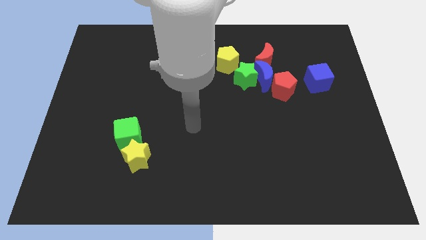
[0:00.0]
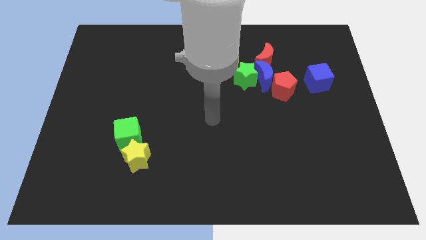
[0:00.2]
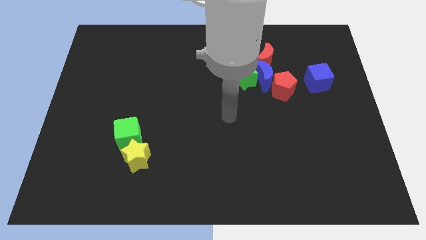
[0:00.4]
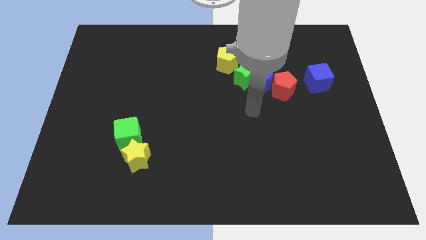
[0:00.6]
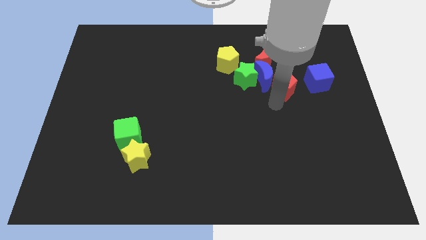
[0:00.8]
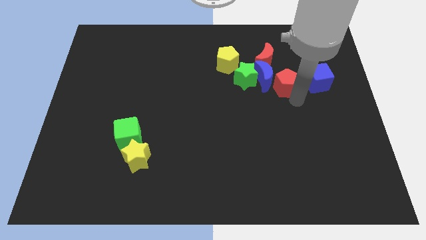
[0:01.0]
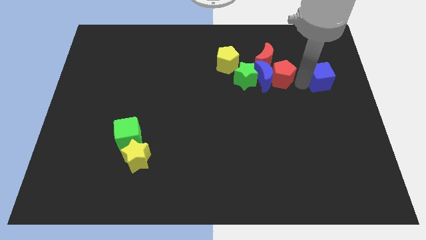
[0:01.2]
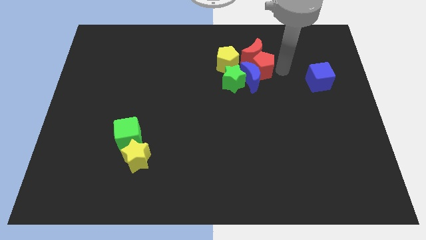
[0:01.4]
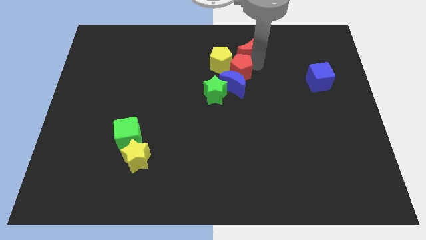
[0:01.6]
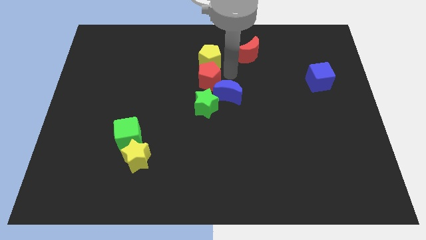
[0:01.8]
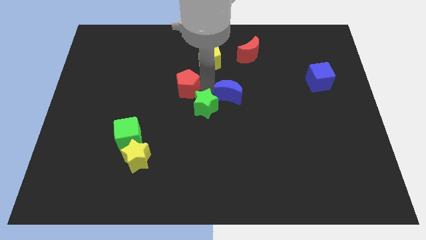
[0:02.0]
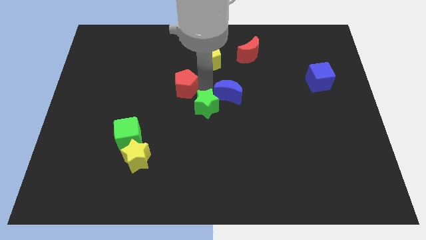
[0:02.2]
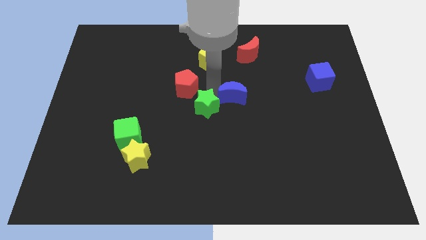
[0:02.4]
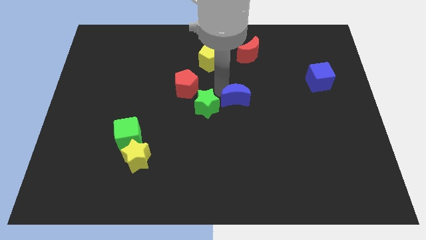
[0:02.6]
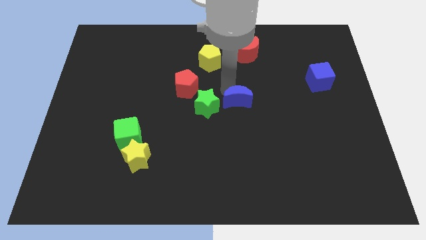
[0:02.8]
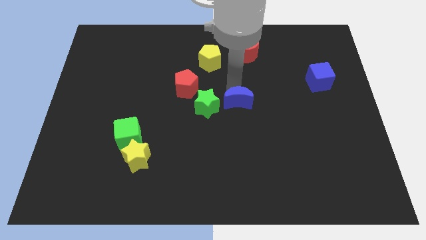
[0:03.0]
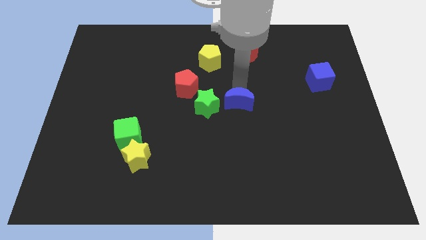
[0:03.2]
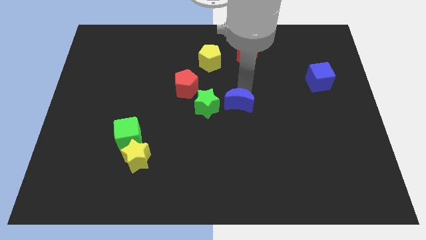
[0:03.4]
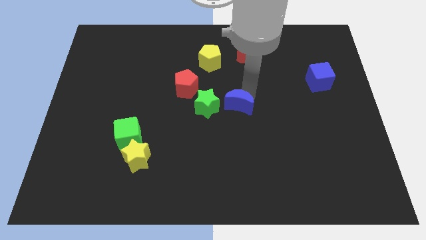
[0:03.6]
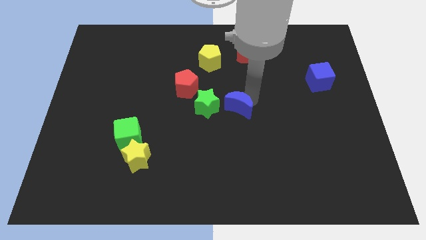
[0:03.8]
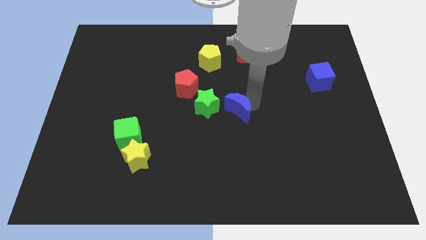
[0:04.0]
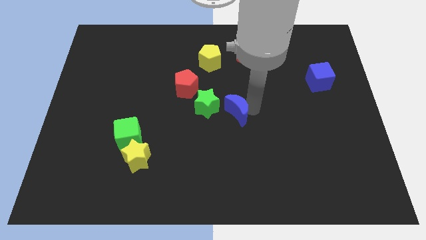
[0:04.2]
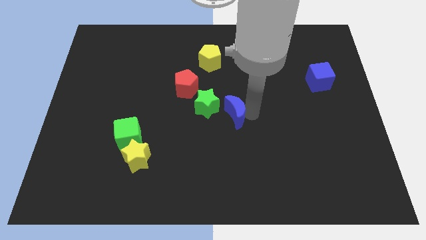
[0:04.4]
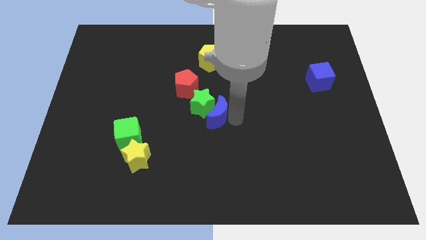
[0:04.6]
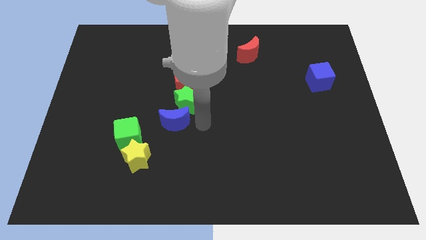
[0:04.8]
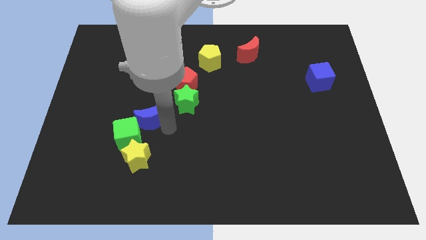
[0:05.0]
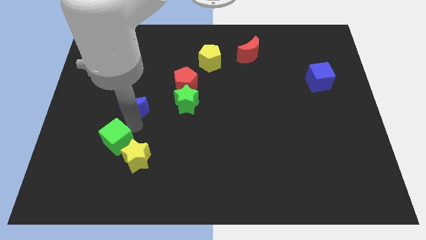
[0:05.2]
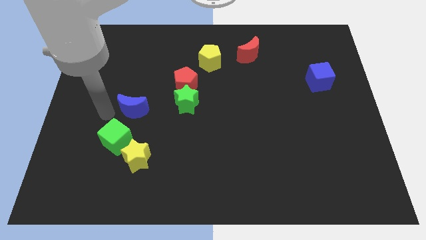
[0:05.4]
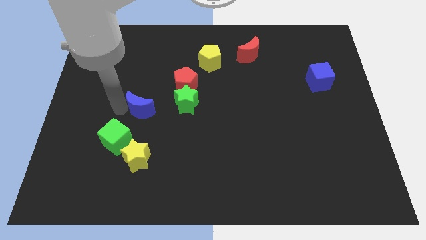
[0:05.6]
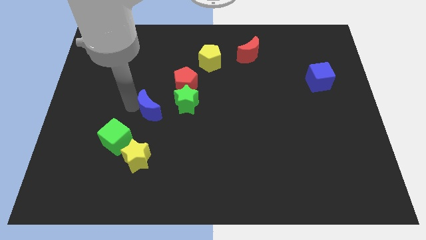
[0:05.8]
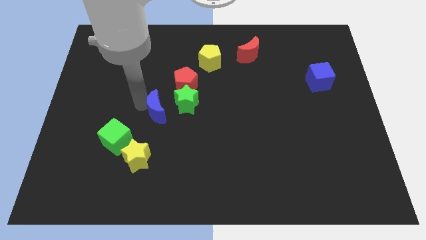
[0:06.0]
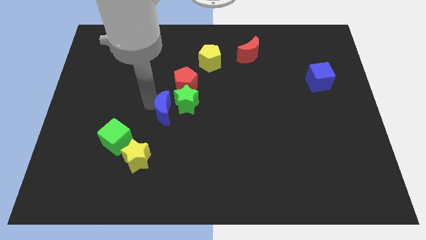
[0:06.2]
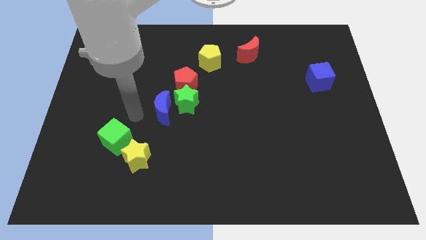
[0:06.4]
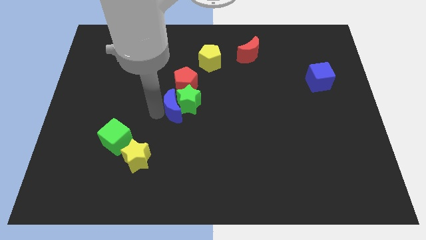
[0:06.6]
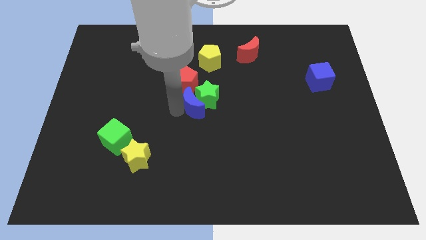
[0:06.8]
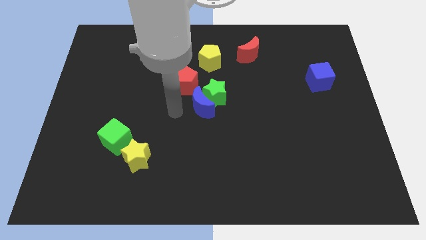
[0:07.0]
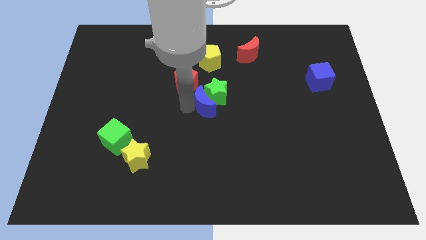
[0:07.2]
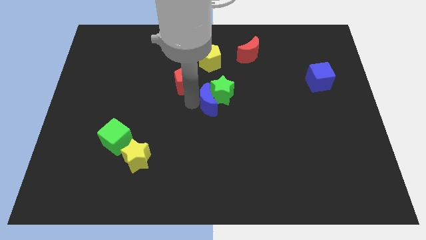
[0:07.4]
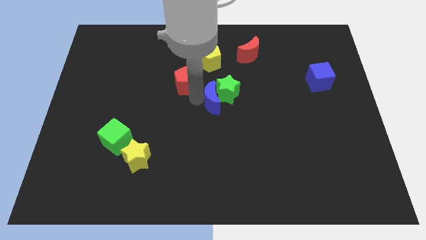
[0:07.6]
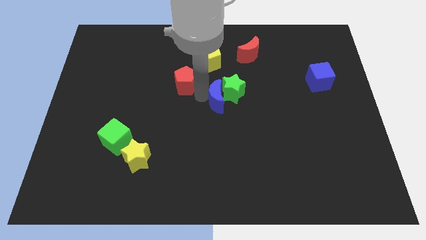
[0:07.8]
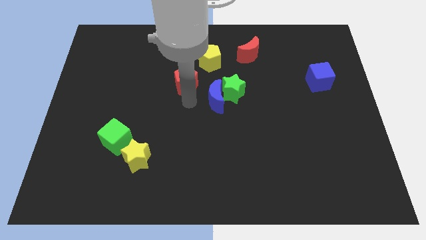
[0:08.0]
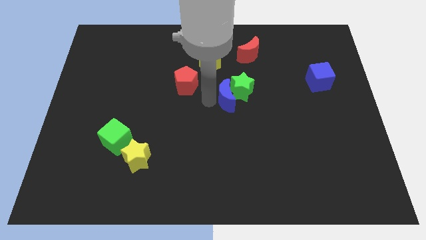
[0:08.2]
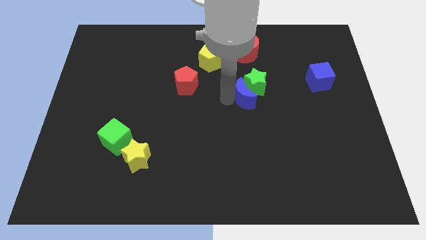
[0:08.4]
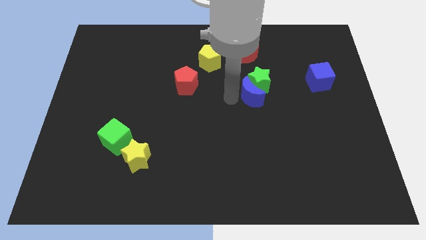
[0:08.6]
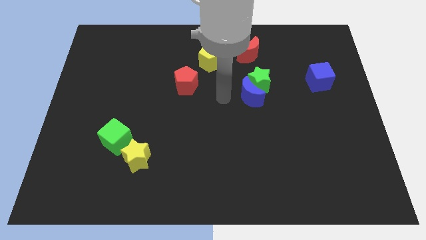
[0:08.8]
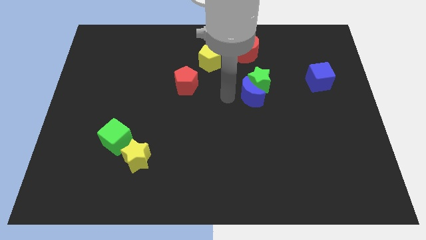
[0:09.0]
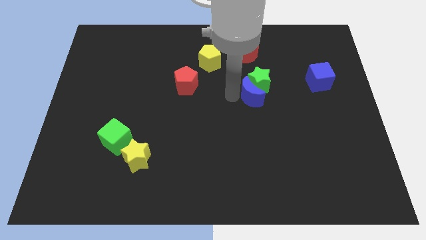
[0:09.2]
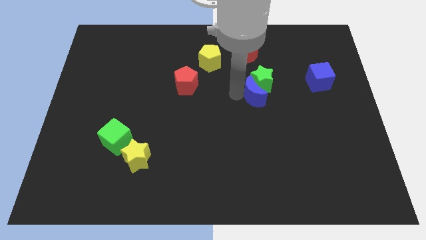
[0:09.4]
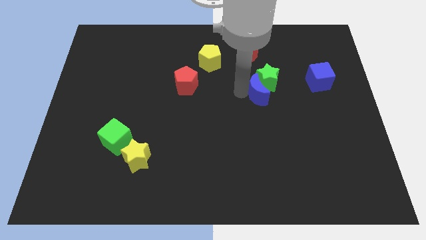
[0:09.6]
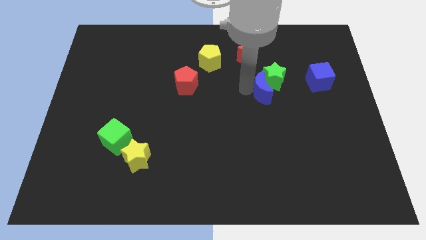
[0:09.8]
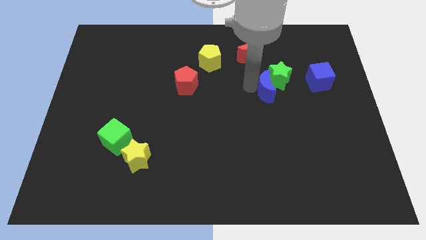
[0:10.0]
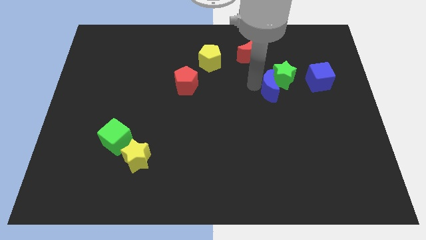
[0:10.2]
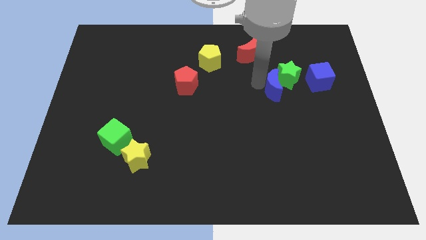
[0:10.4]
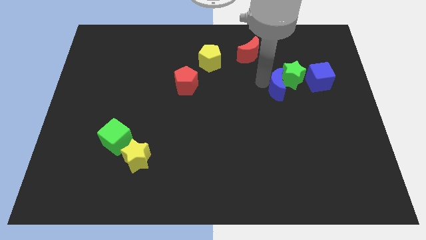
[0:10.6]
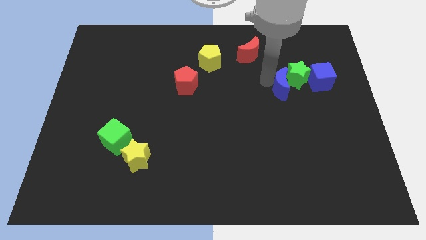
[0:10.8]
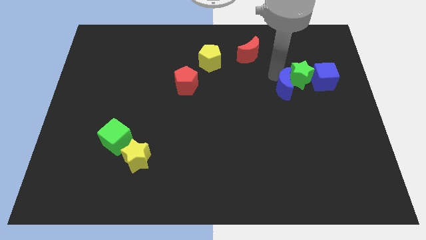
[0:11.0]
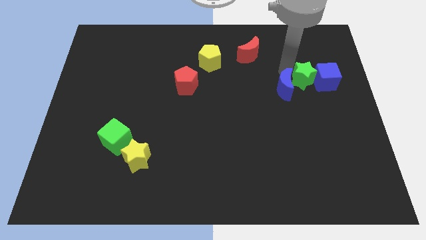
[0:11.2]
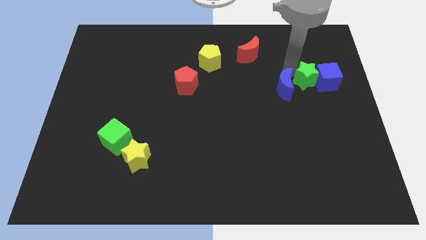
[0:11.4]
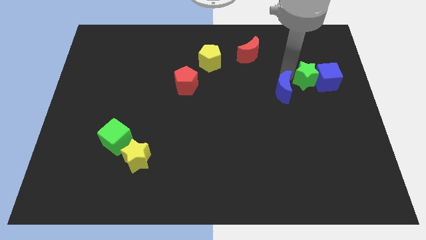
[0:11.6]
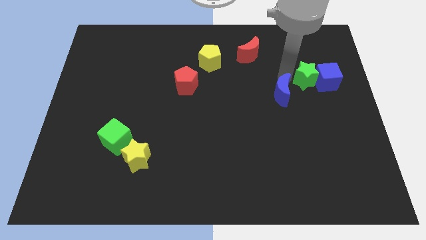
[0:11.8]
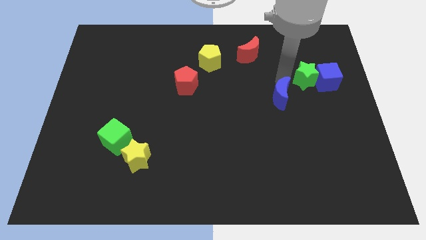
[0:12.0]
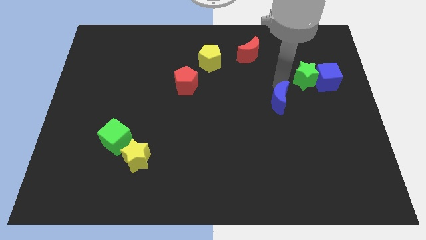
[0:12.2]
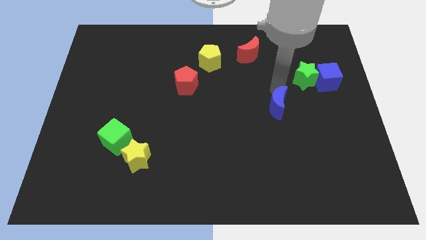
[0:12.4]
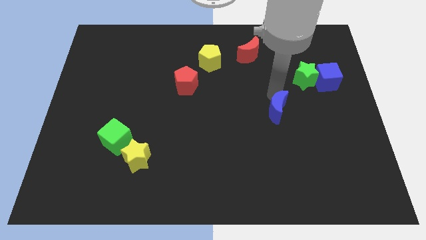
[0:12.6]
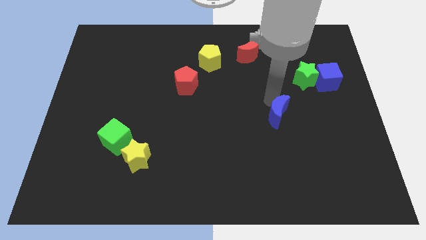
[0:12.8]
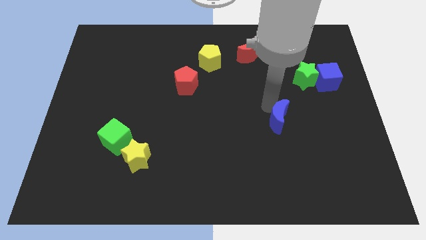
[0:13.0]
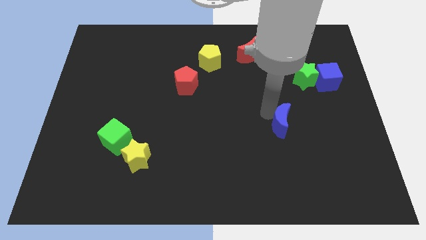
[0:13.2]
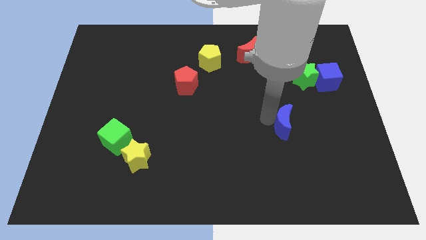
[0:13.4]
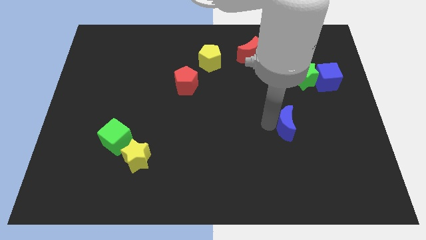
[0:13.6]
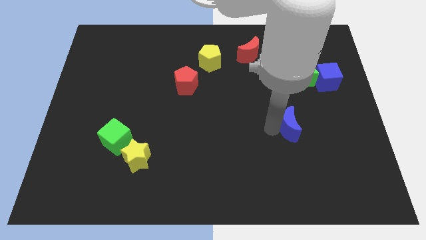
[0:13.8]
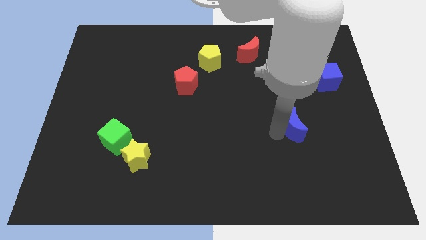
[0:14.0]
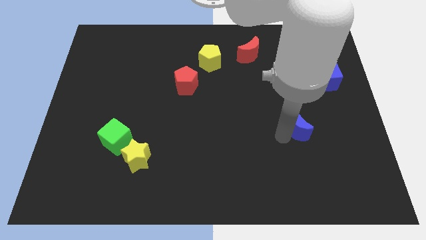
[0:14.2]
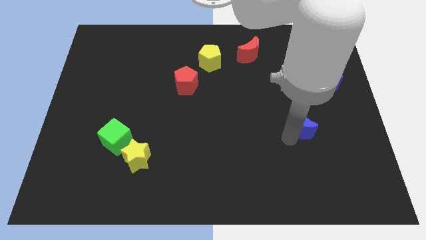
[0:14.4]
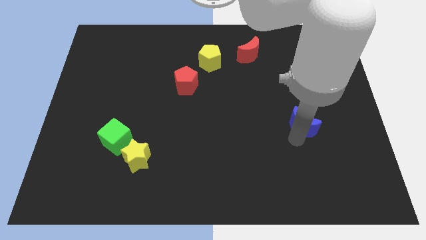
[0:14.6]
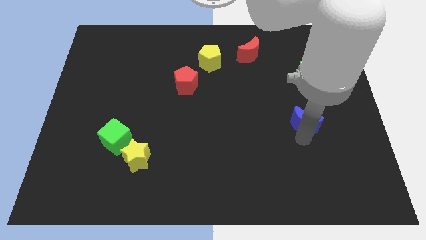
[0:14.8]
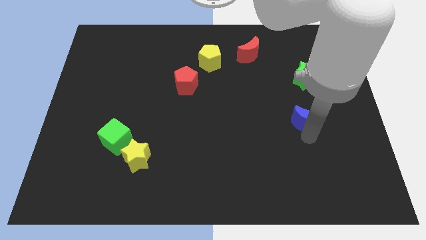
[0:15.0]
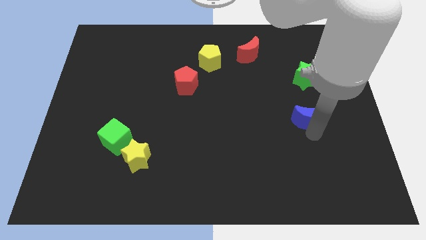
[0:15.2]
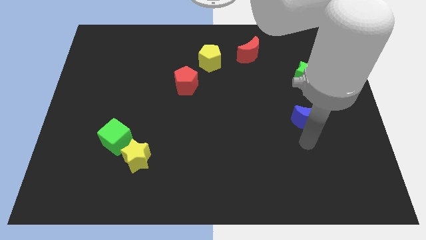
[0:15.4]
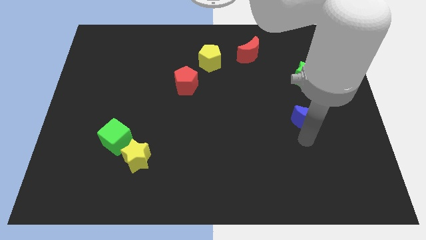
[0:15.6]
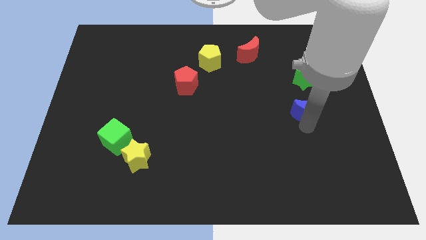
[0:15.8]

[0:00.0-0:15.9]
slide the blue moon to the bottom left of the blue cube
